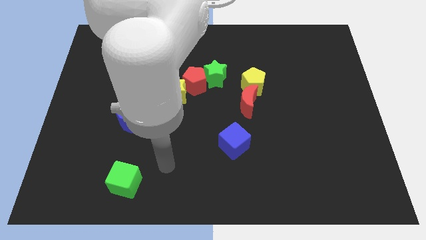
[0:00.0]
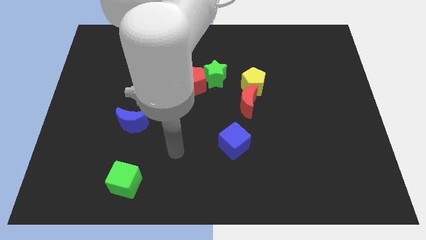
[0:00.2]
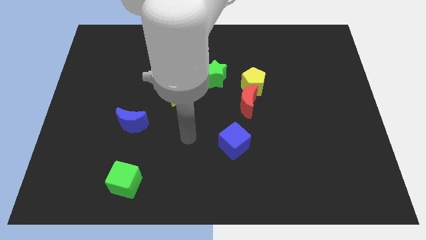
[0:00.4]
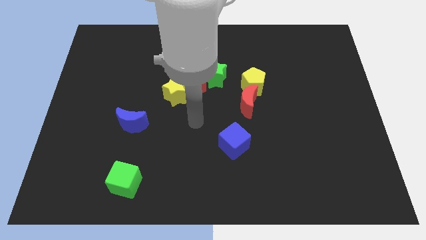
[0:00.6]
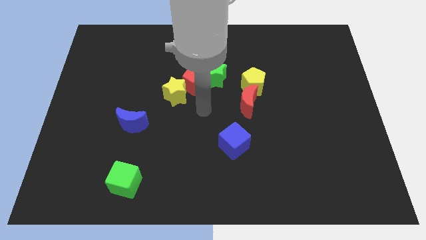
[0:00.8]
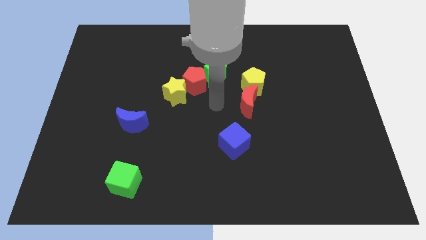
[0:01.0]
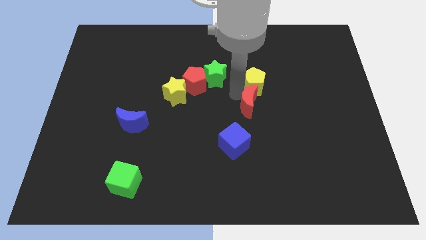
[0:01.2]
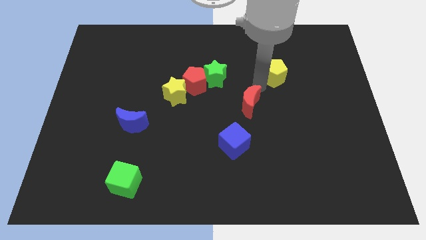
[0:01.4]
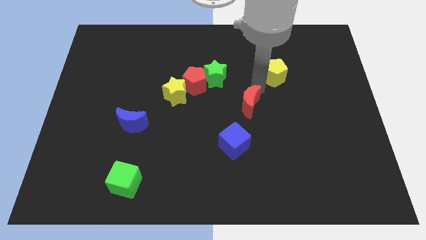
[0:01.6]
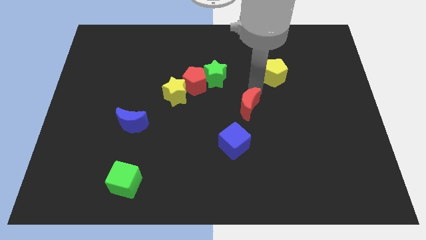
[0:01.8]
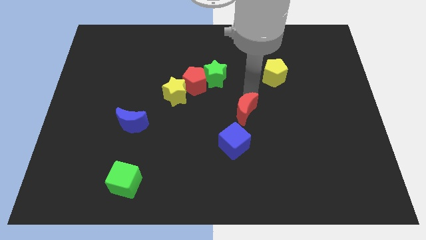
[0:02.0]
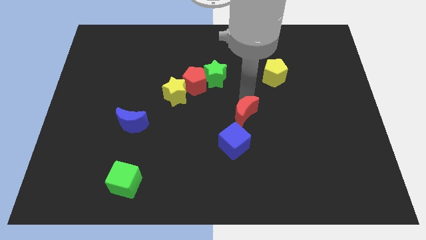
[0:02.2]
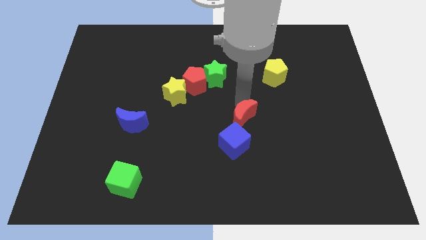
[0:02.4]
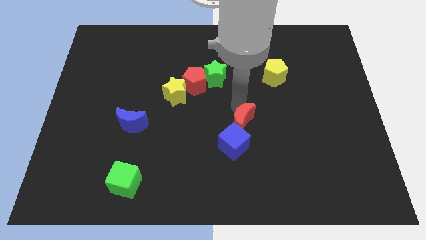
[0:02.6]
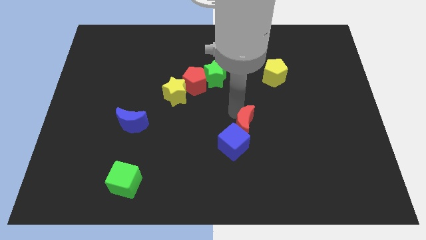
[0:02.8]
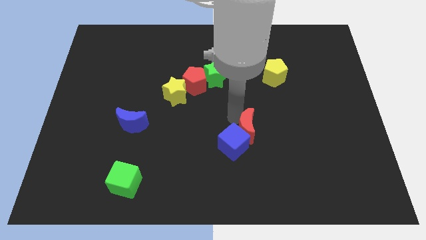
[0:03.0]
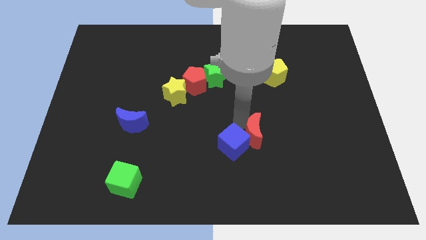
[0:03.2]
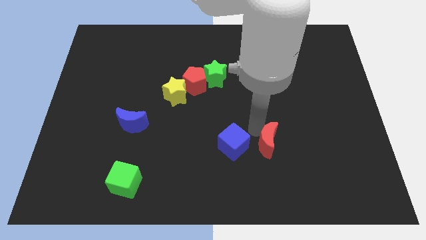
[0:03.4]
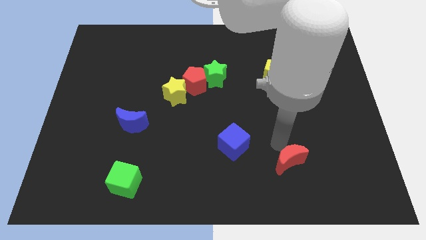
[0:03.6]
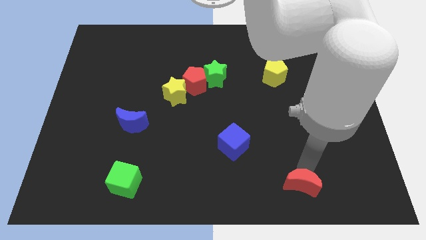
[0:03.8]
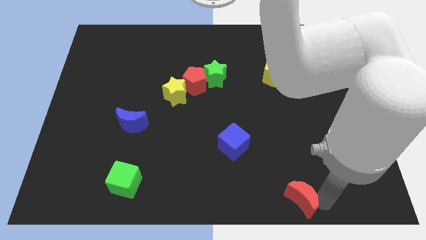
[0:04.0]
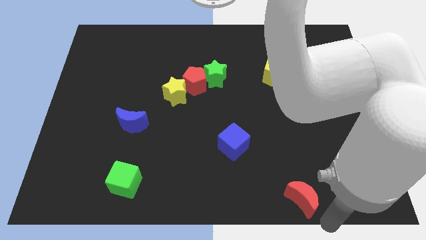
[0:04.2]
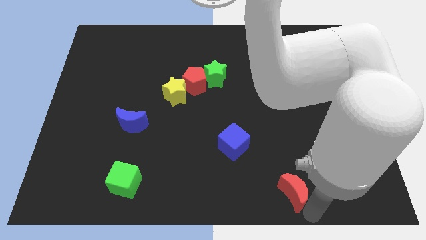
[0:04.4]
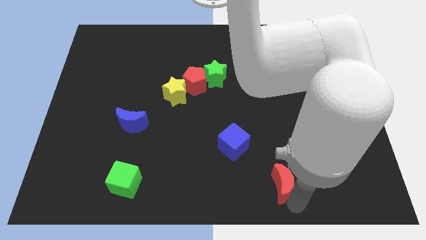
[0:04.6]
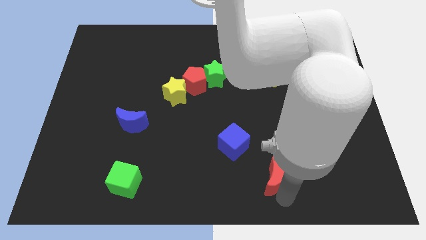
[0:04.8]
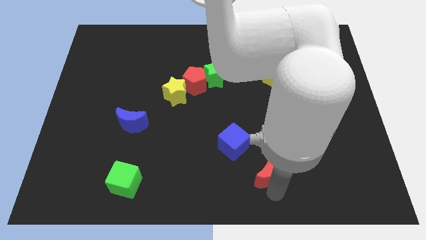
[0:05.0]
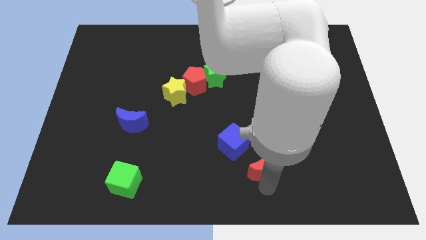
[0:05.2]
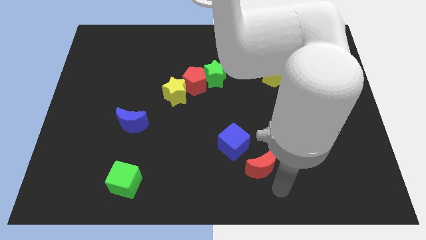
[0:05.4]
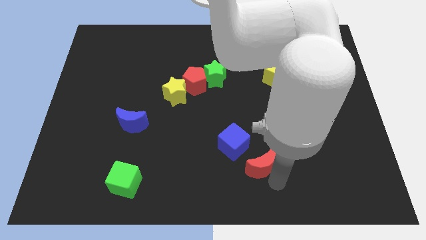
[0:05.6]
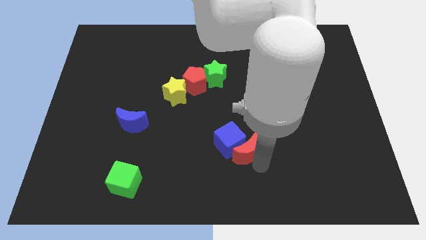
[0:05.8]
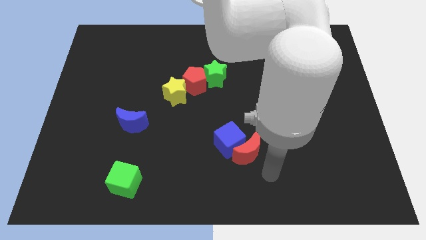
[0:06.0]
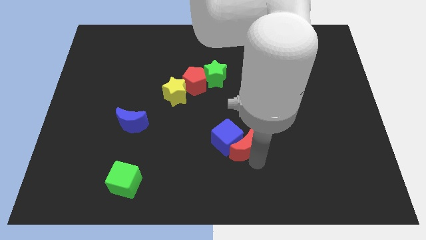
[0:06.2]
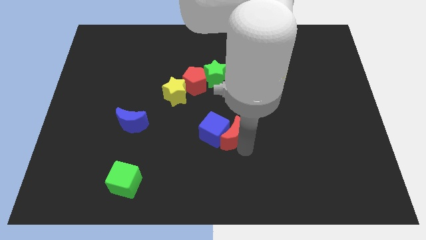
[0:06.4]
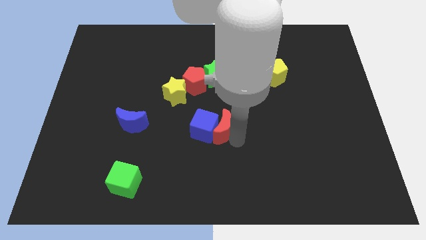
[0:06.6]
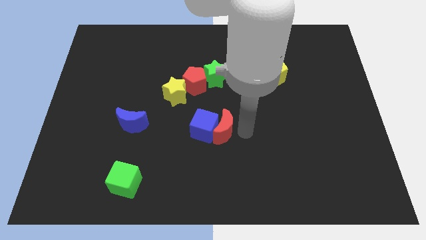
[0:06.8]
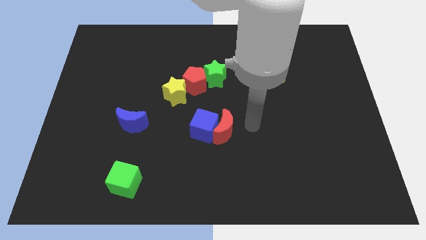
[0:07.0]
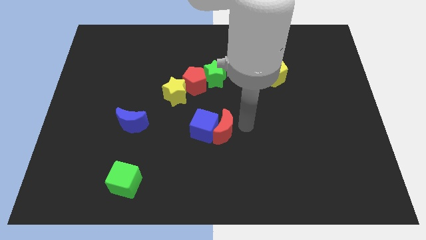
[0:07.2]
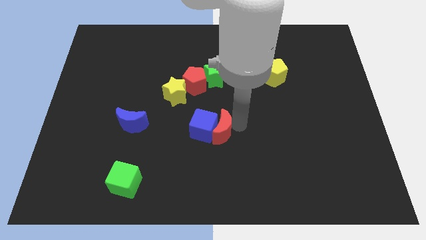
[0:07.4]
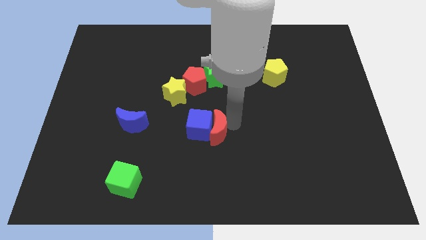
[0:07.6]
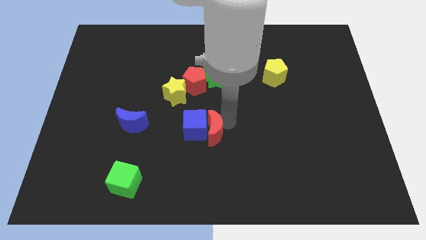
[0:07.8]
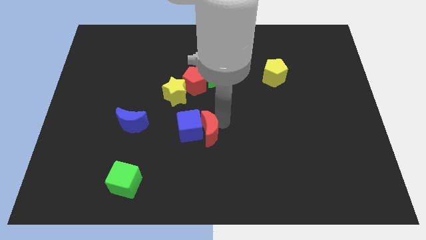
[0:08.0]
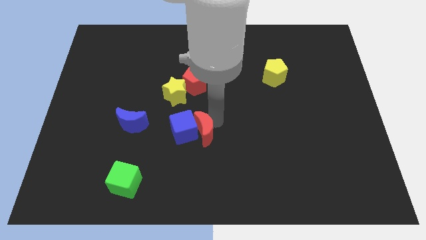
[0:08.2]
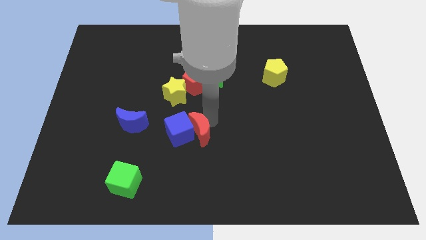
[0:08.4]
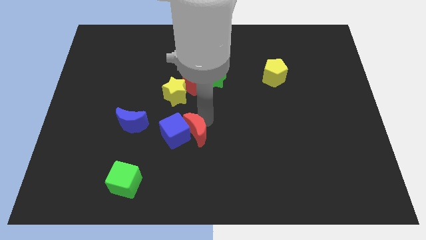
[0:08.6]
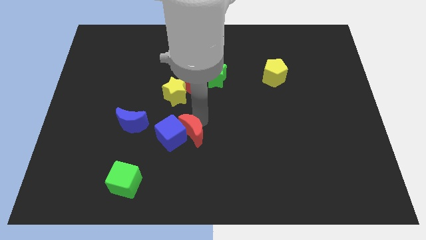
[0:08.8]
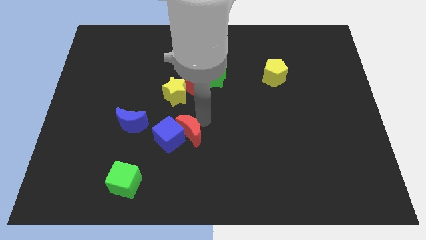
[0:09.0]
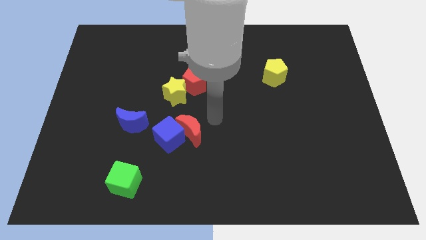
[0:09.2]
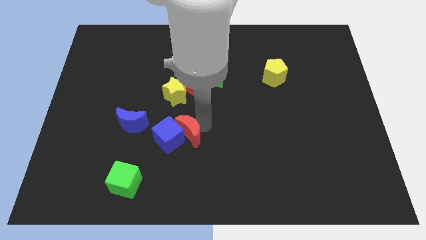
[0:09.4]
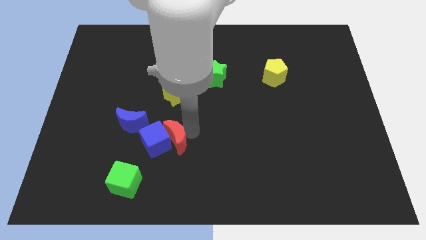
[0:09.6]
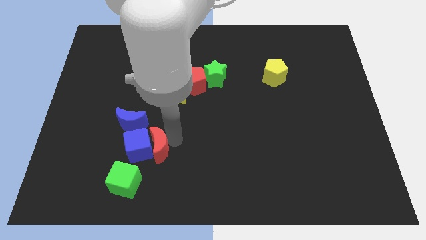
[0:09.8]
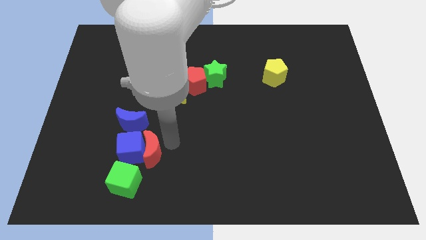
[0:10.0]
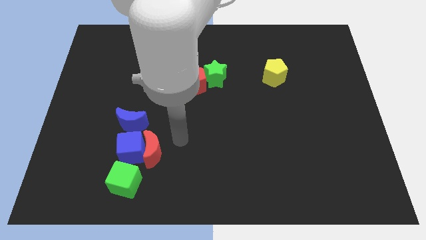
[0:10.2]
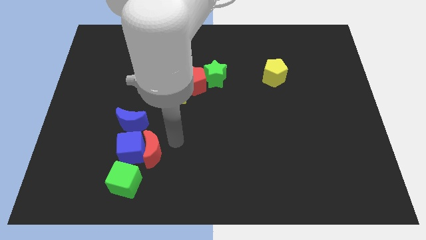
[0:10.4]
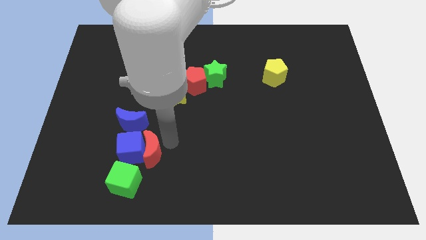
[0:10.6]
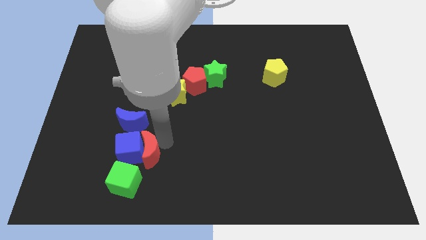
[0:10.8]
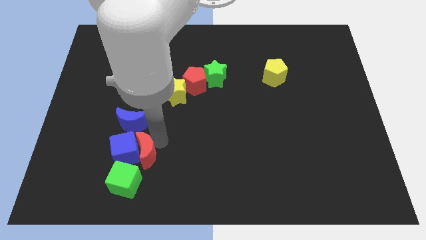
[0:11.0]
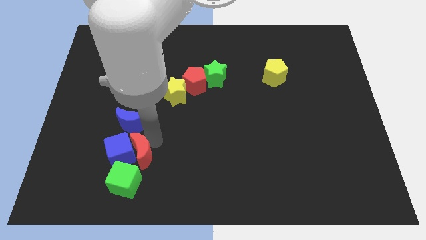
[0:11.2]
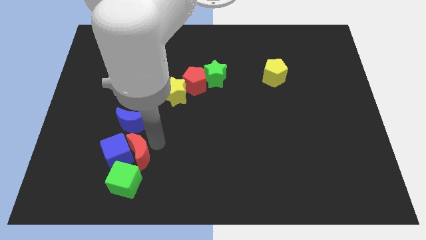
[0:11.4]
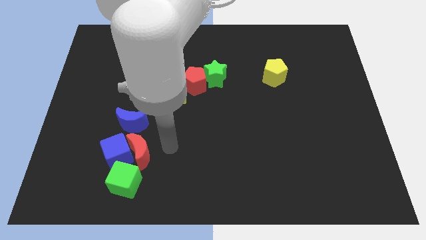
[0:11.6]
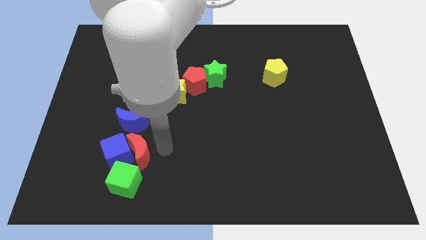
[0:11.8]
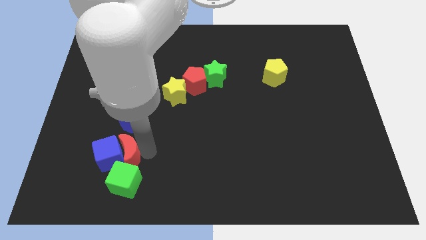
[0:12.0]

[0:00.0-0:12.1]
slide the red moon diagonally up and to the left of the green cube

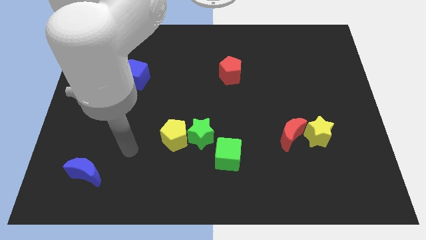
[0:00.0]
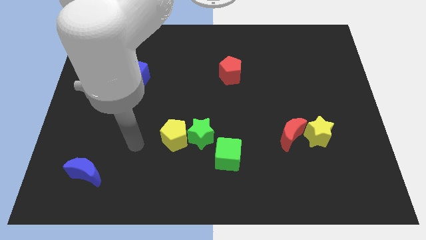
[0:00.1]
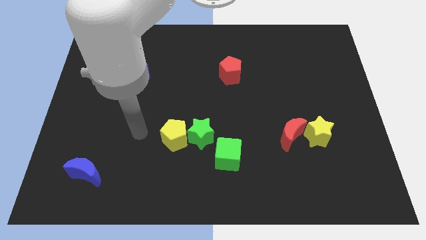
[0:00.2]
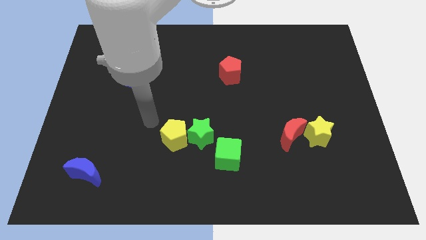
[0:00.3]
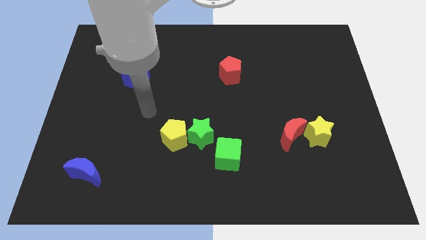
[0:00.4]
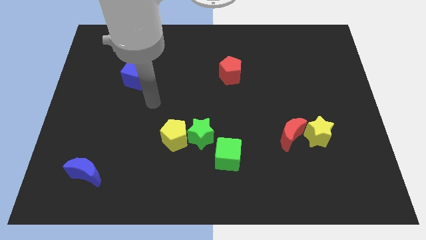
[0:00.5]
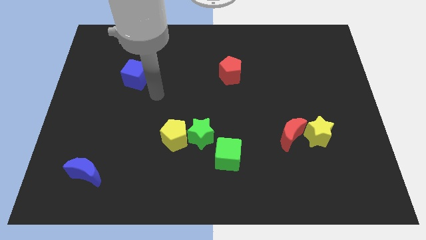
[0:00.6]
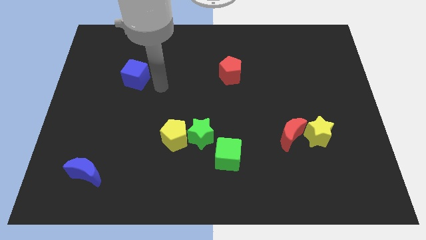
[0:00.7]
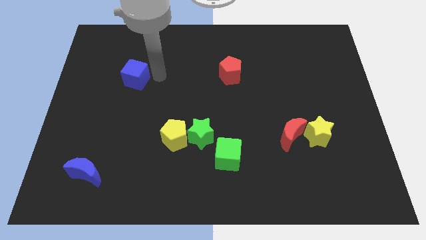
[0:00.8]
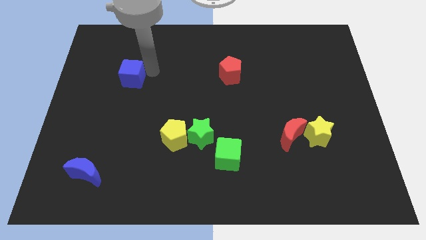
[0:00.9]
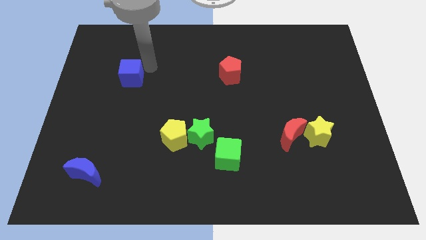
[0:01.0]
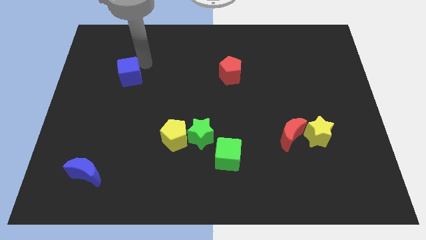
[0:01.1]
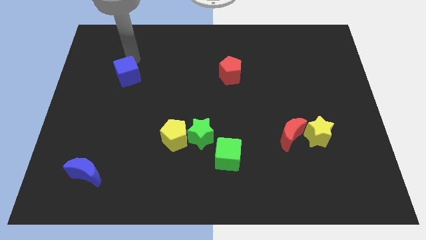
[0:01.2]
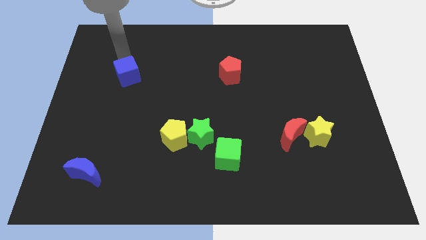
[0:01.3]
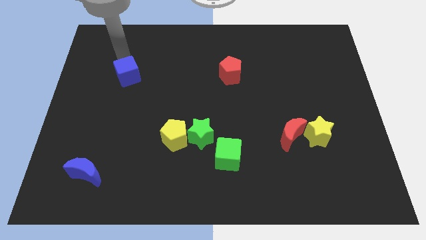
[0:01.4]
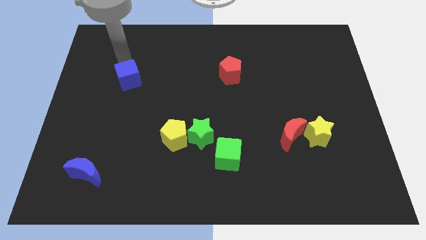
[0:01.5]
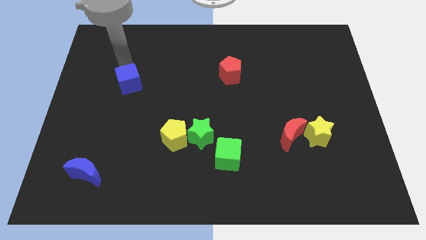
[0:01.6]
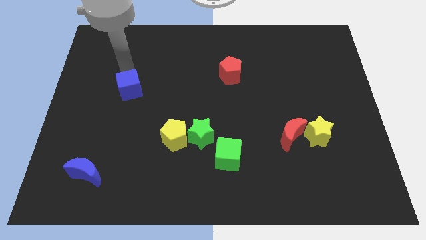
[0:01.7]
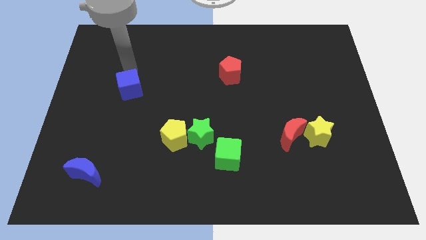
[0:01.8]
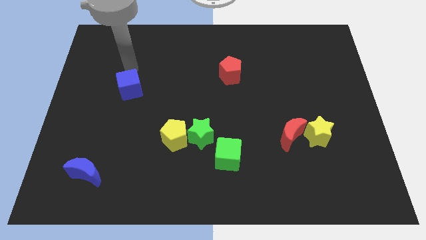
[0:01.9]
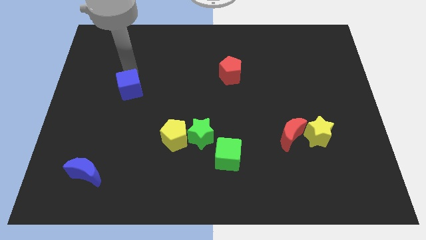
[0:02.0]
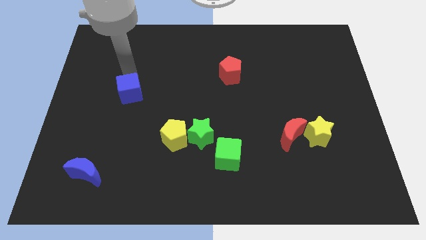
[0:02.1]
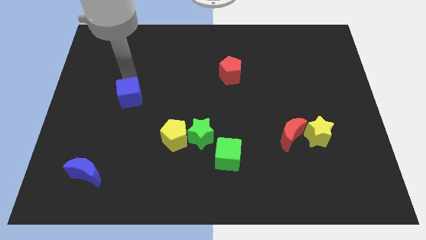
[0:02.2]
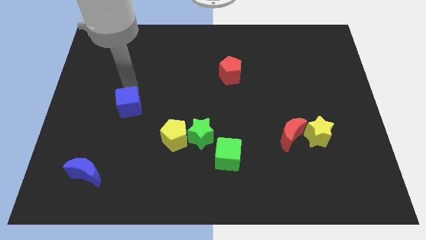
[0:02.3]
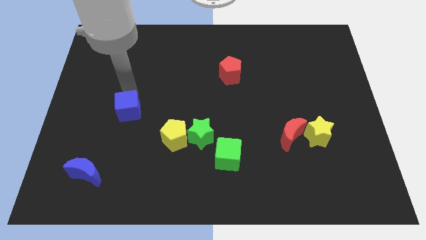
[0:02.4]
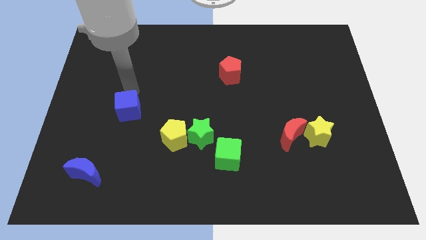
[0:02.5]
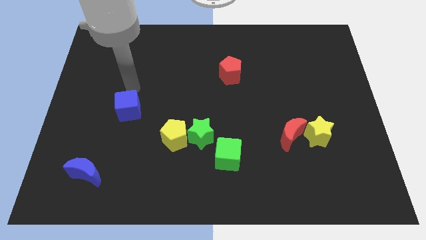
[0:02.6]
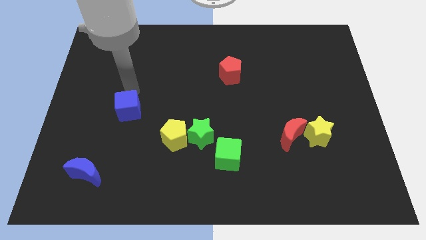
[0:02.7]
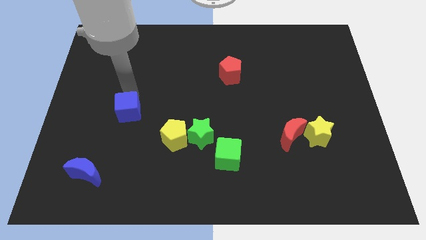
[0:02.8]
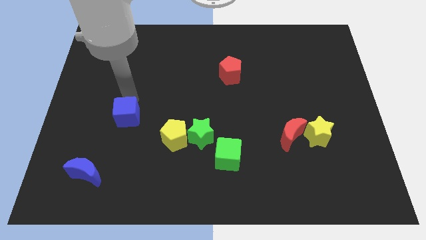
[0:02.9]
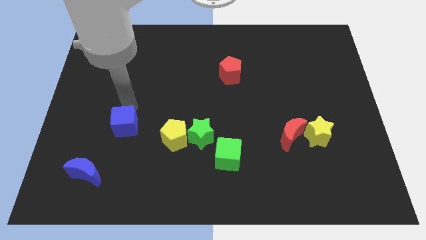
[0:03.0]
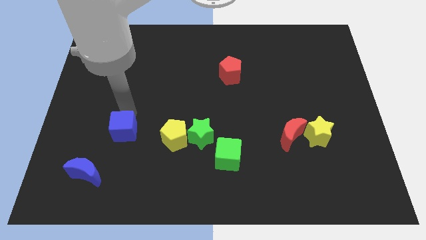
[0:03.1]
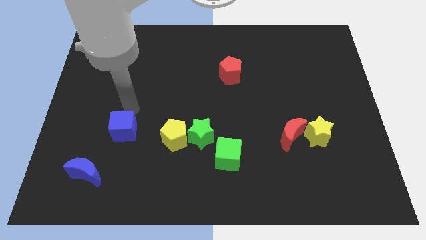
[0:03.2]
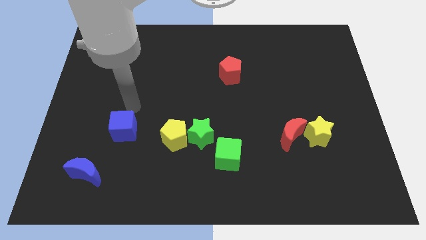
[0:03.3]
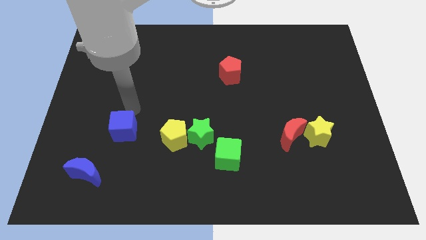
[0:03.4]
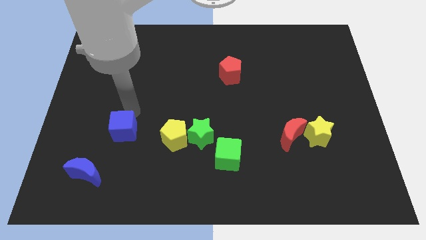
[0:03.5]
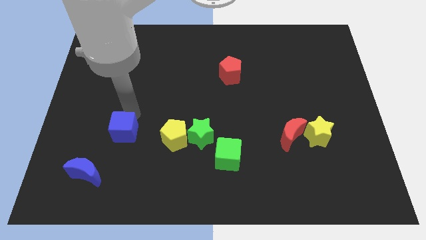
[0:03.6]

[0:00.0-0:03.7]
slide the blue cube diagonally up and to the right of the blue moon
